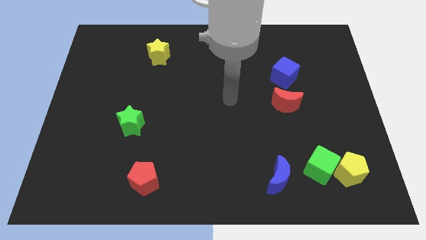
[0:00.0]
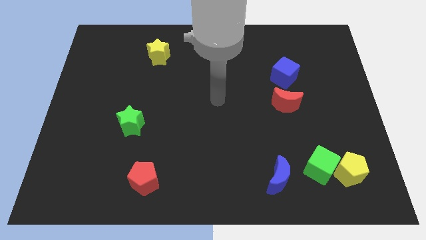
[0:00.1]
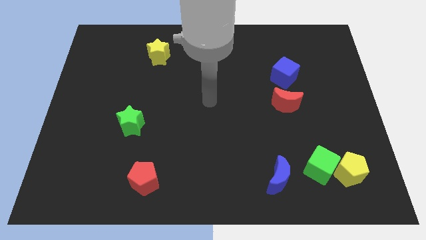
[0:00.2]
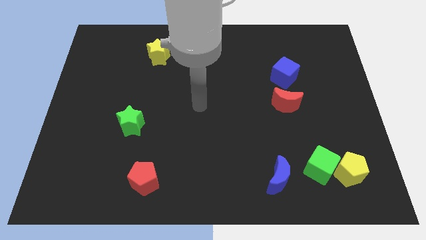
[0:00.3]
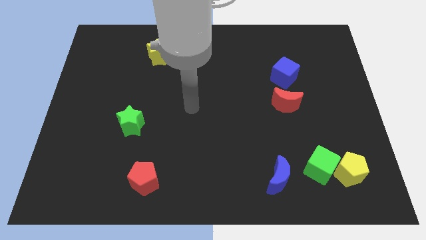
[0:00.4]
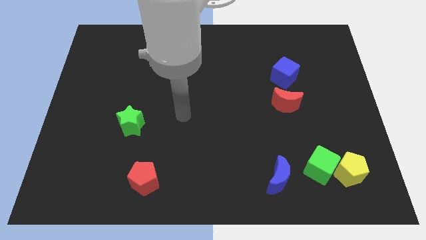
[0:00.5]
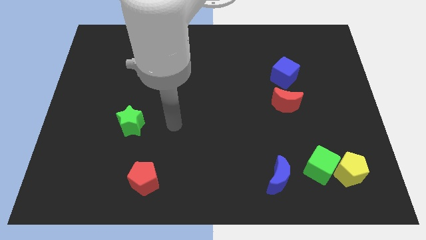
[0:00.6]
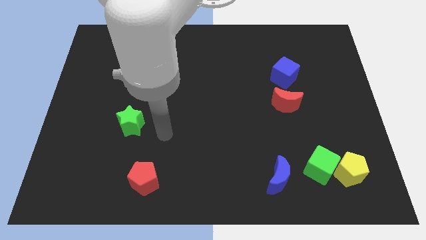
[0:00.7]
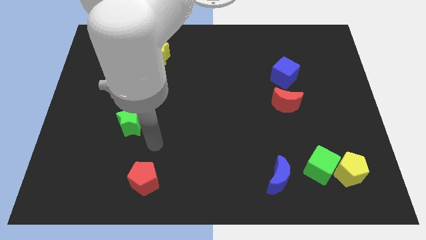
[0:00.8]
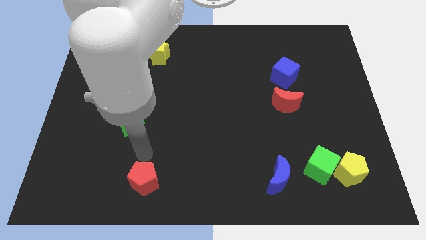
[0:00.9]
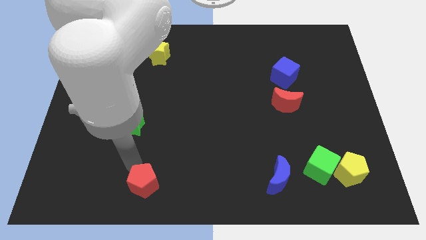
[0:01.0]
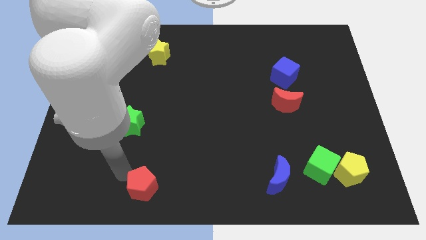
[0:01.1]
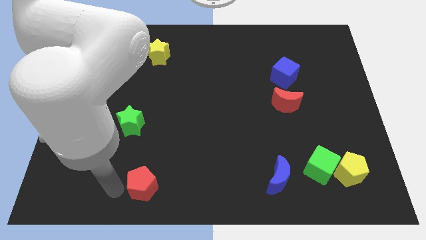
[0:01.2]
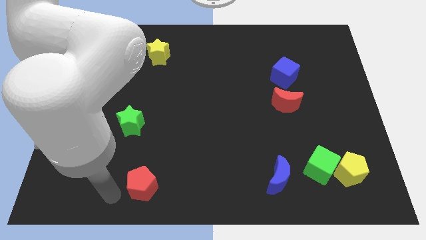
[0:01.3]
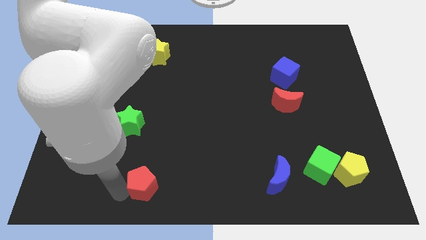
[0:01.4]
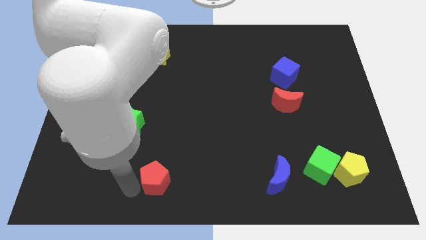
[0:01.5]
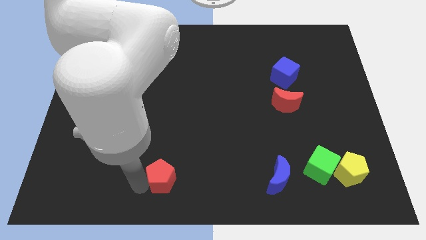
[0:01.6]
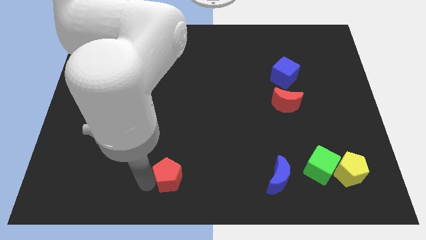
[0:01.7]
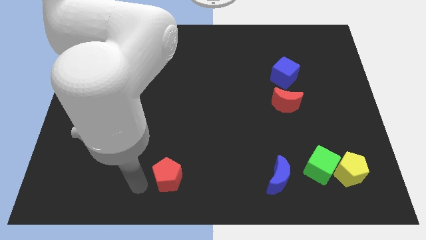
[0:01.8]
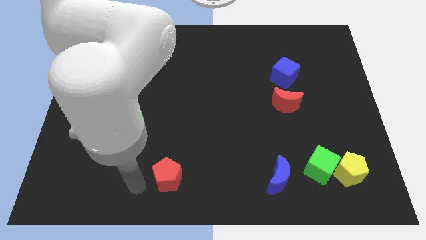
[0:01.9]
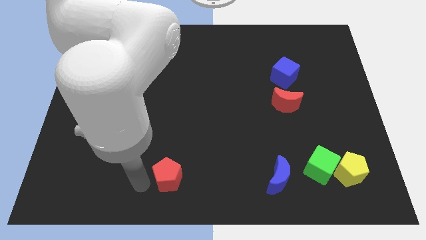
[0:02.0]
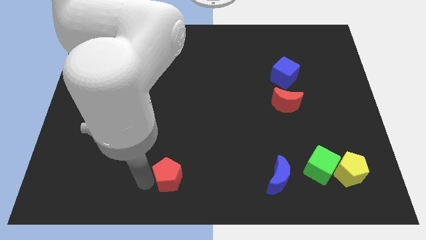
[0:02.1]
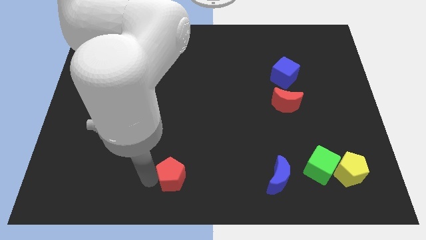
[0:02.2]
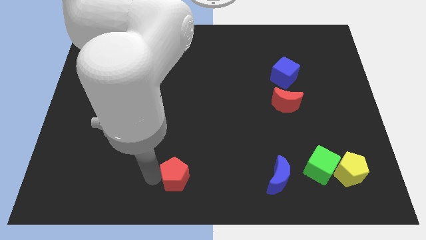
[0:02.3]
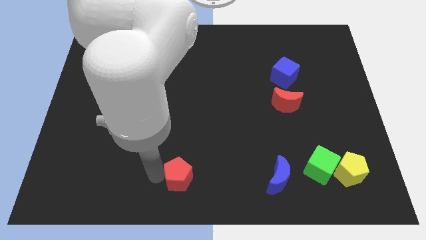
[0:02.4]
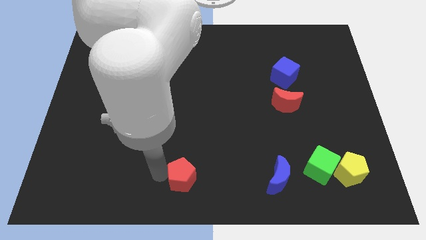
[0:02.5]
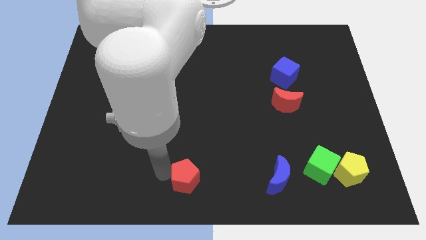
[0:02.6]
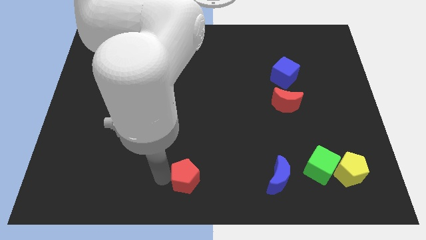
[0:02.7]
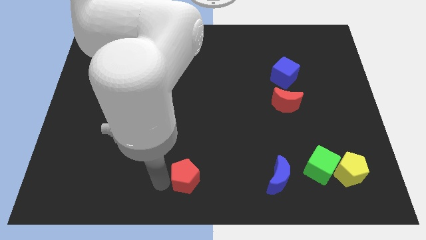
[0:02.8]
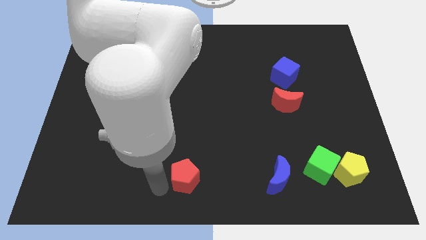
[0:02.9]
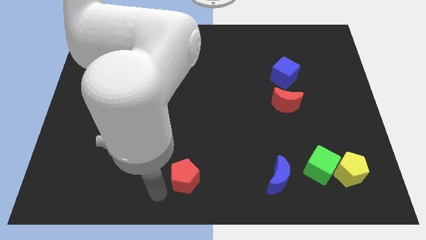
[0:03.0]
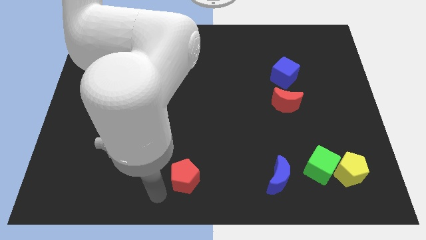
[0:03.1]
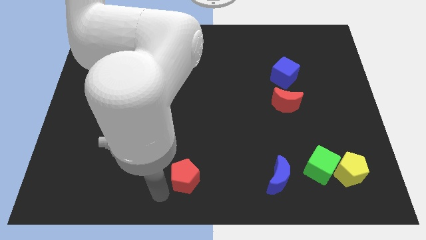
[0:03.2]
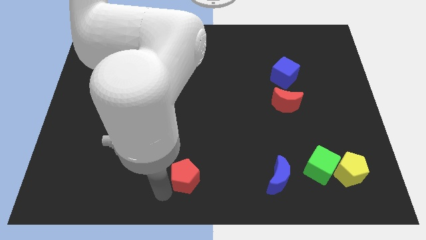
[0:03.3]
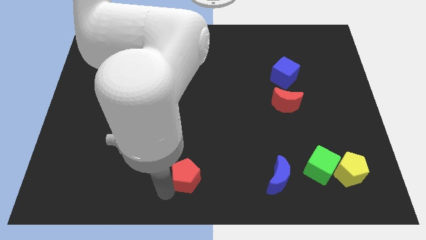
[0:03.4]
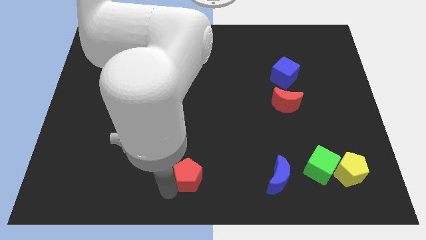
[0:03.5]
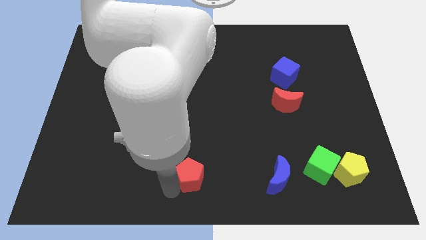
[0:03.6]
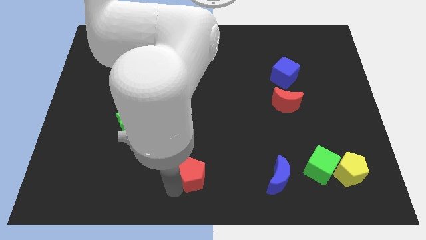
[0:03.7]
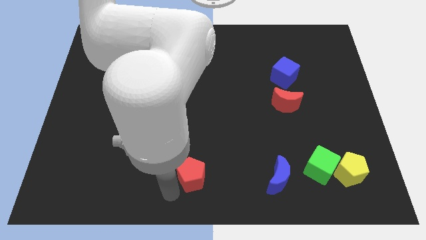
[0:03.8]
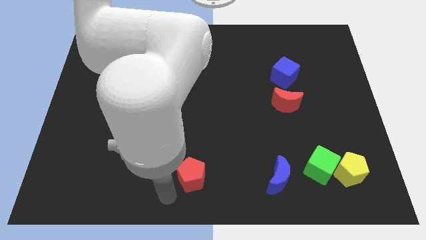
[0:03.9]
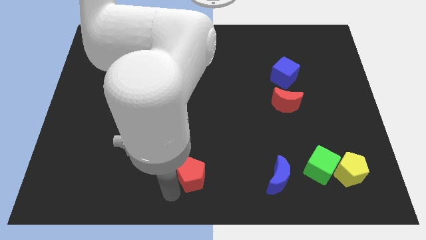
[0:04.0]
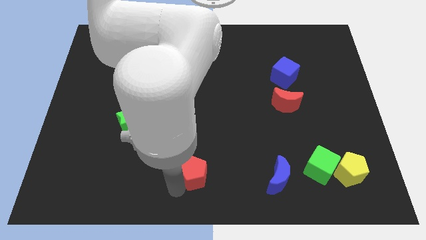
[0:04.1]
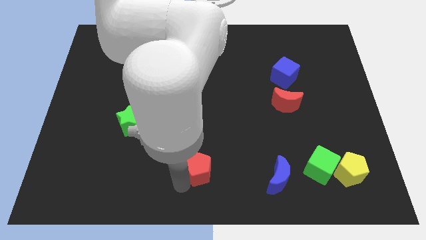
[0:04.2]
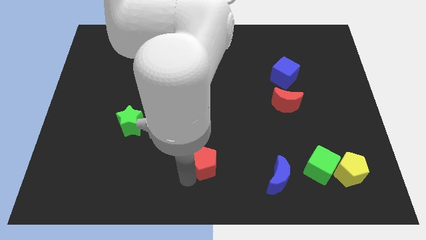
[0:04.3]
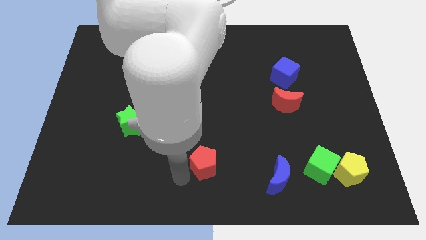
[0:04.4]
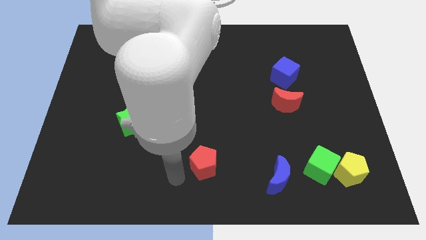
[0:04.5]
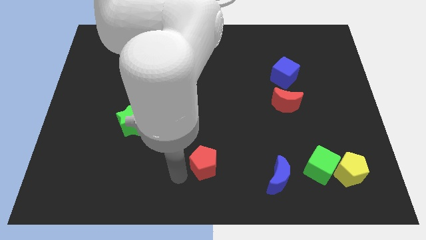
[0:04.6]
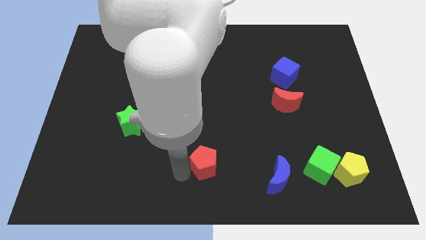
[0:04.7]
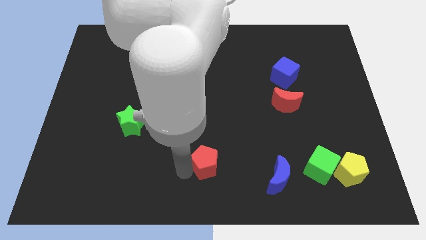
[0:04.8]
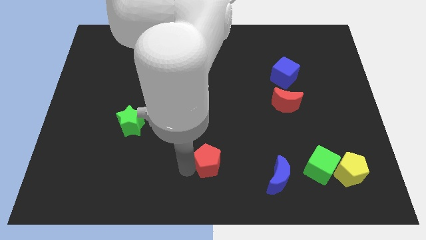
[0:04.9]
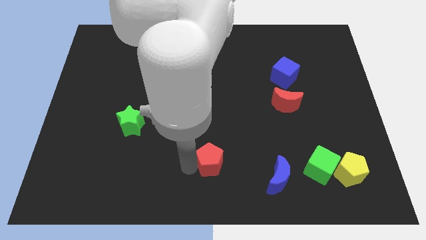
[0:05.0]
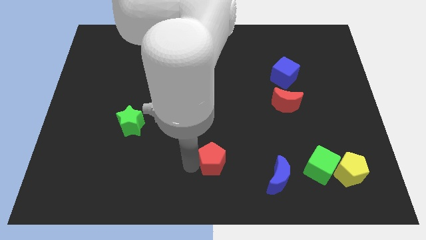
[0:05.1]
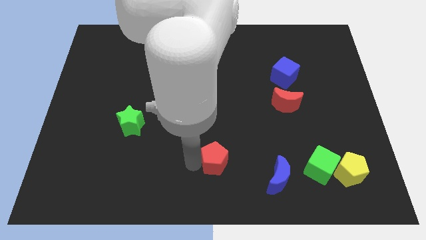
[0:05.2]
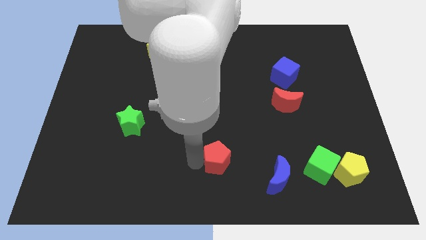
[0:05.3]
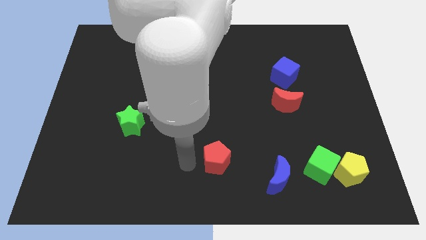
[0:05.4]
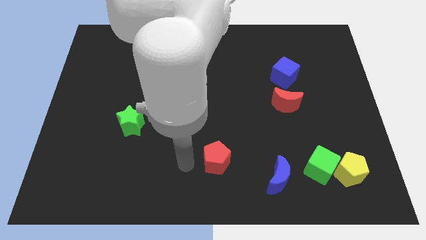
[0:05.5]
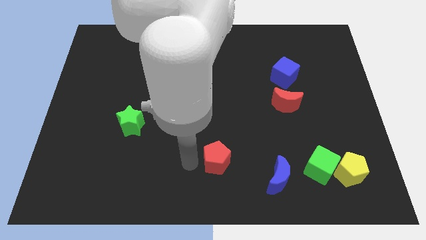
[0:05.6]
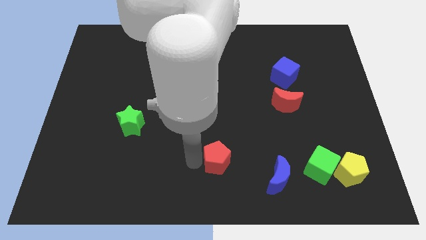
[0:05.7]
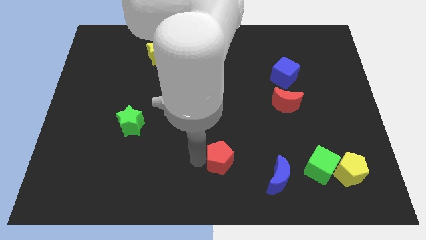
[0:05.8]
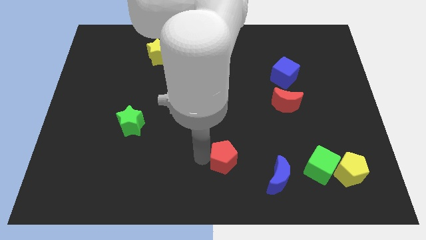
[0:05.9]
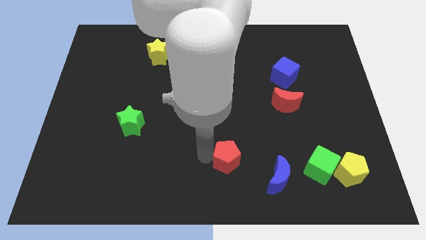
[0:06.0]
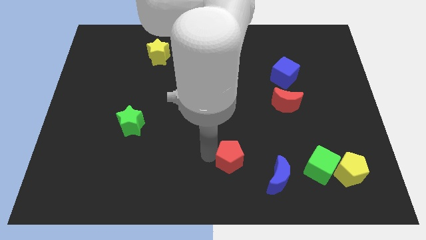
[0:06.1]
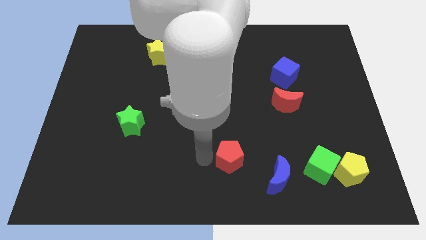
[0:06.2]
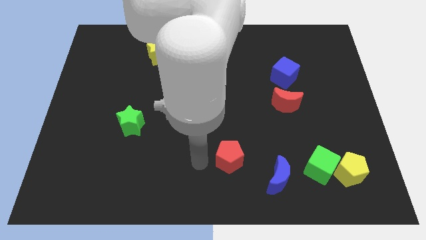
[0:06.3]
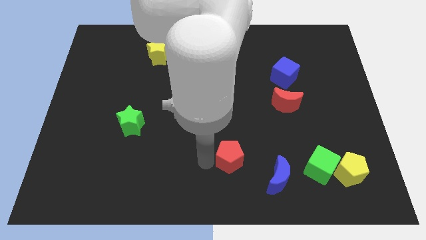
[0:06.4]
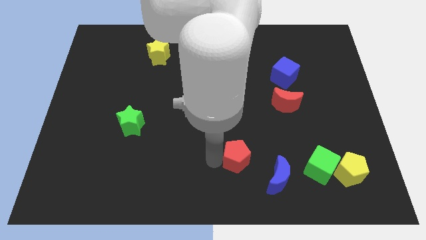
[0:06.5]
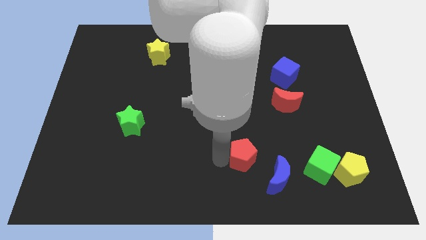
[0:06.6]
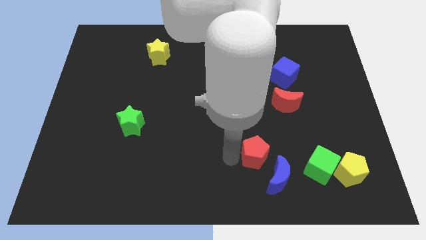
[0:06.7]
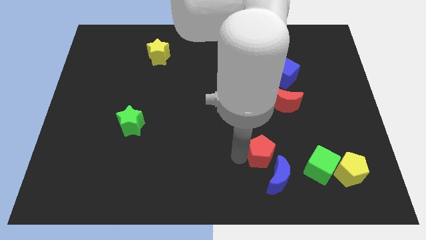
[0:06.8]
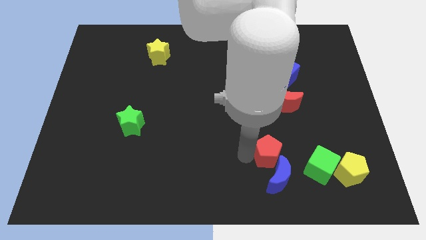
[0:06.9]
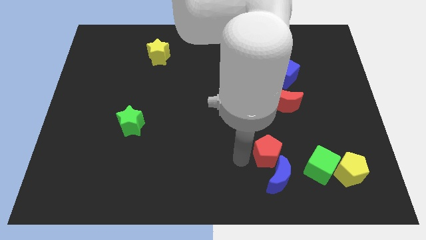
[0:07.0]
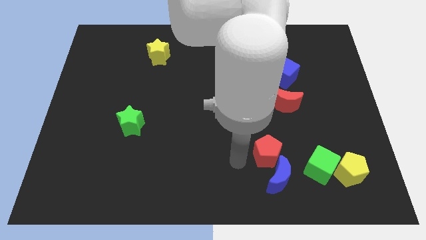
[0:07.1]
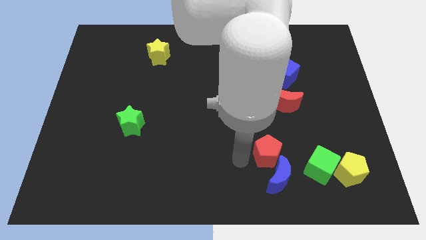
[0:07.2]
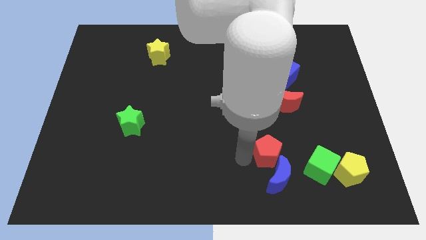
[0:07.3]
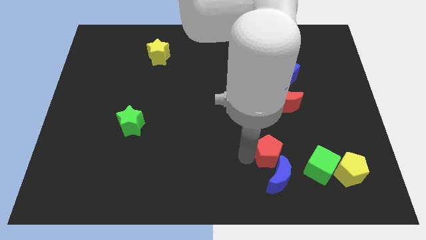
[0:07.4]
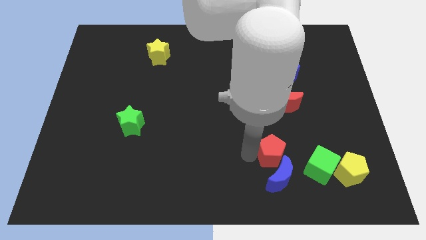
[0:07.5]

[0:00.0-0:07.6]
slide the red pentagon to the top left of the green cube
